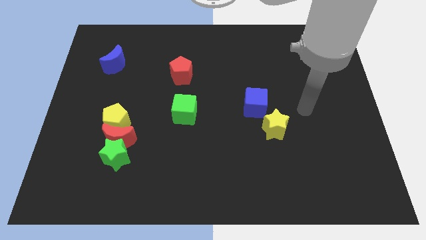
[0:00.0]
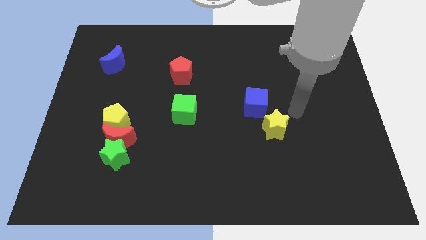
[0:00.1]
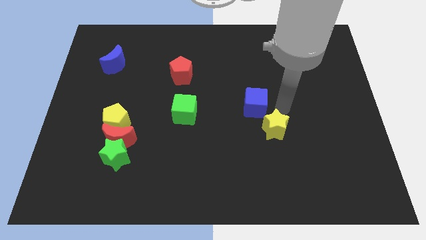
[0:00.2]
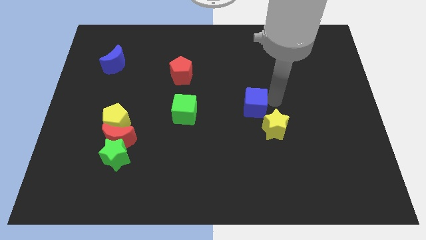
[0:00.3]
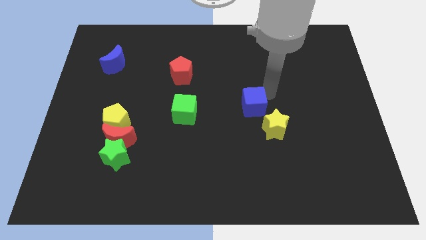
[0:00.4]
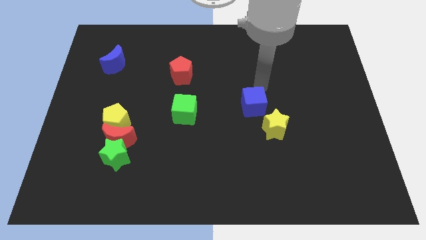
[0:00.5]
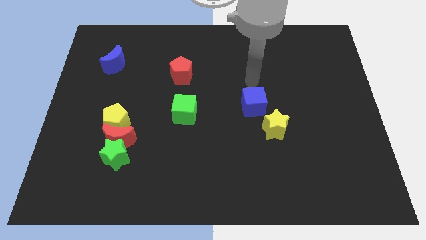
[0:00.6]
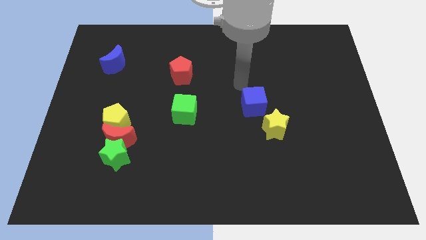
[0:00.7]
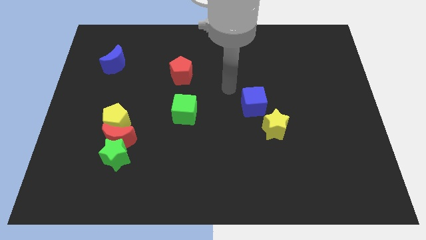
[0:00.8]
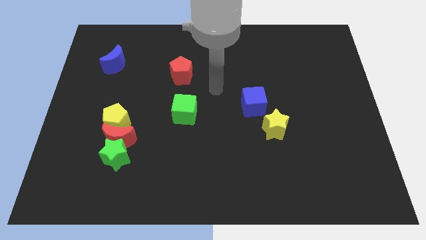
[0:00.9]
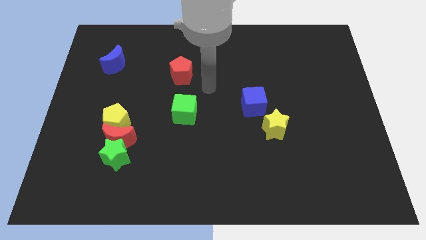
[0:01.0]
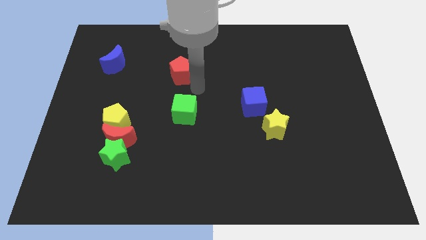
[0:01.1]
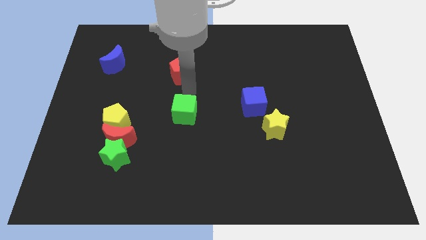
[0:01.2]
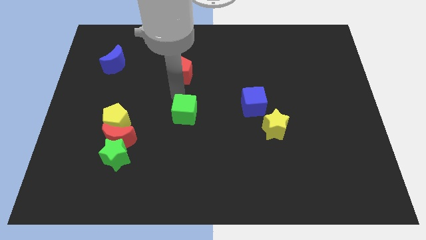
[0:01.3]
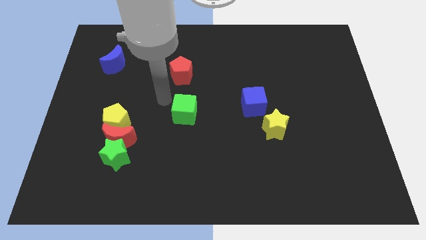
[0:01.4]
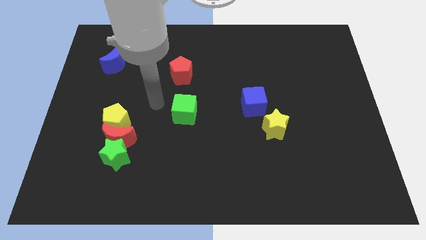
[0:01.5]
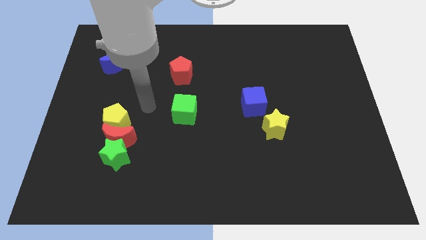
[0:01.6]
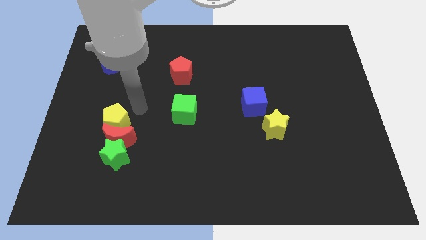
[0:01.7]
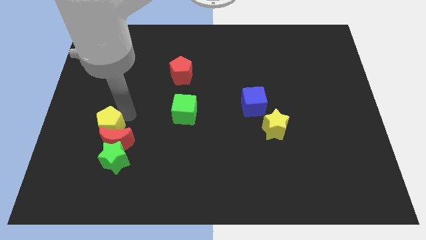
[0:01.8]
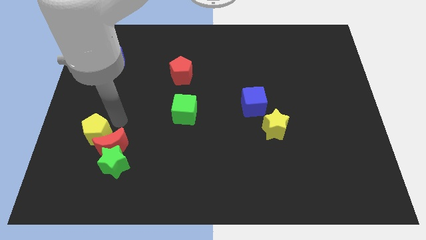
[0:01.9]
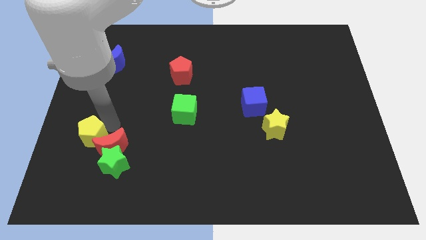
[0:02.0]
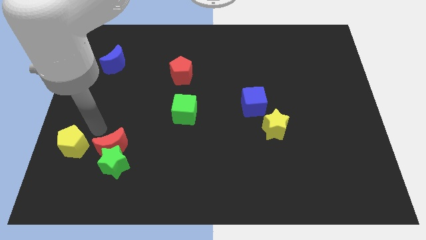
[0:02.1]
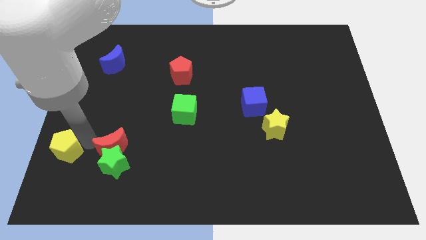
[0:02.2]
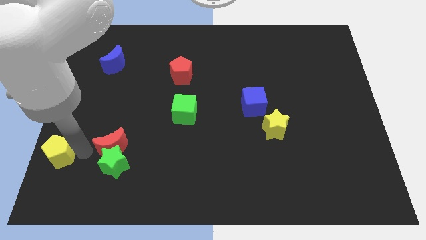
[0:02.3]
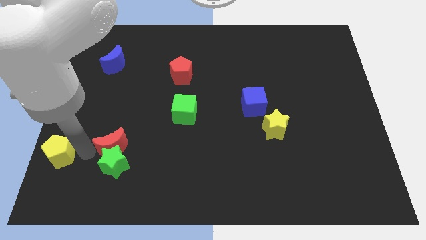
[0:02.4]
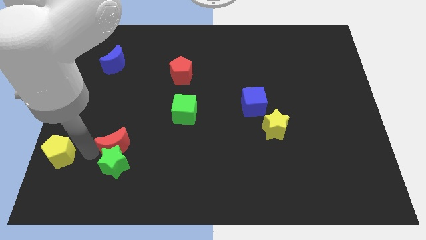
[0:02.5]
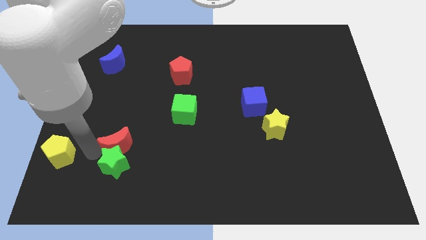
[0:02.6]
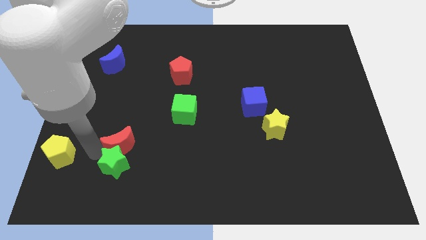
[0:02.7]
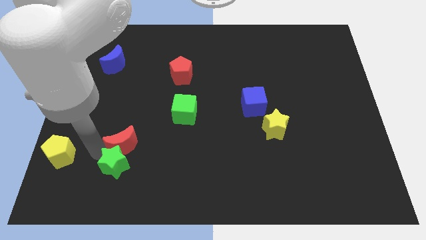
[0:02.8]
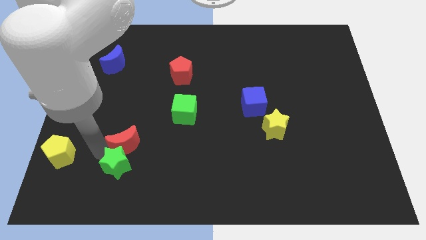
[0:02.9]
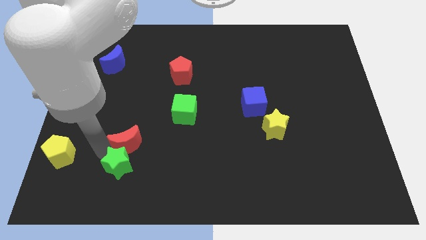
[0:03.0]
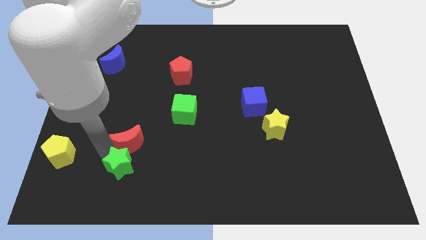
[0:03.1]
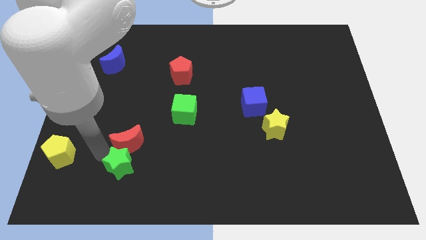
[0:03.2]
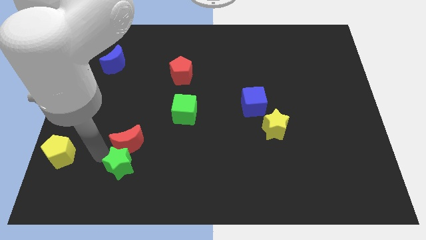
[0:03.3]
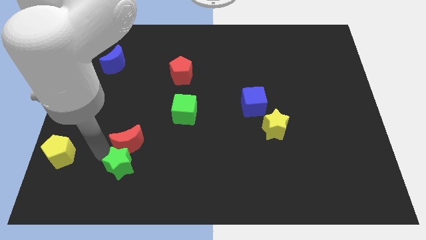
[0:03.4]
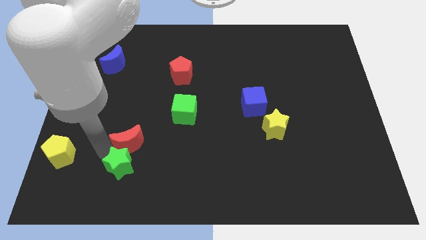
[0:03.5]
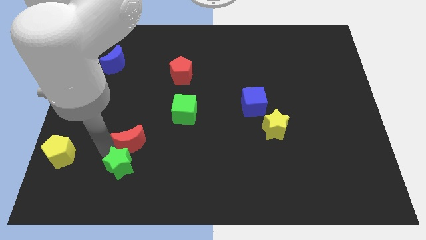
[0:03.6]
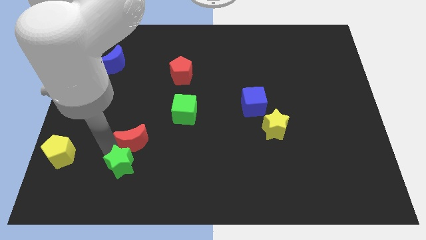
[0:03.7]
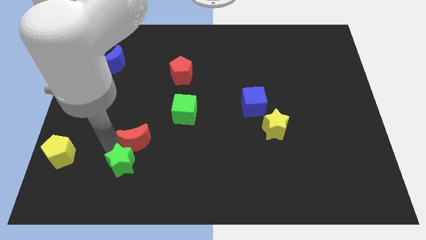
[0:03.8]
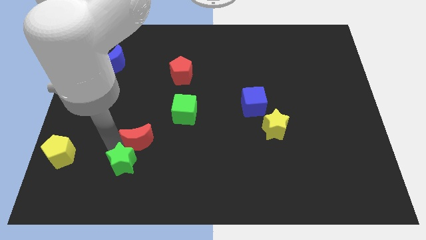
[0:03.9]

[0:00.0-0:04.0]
separate the red moon from the green star and yellow pentagon

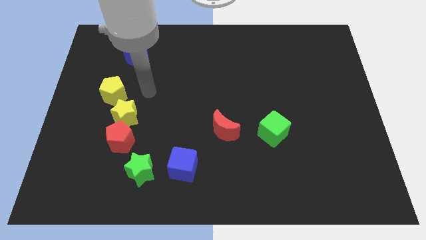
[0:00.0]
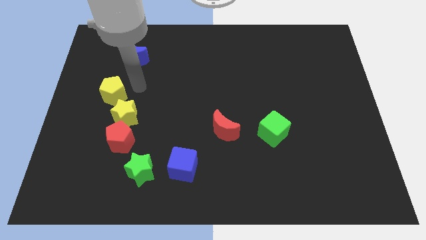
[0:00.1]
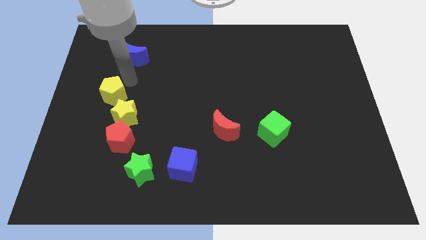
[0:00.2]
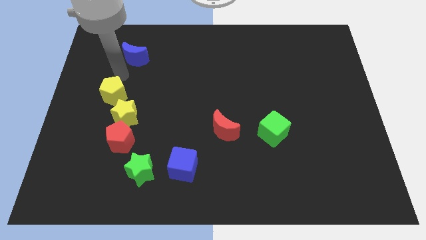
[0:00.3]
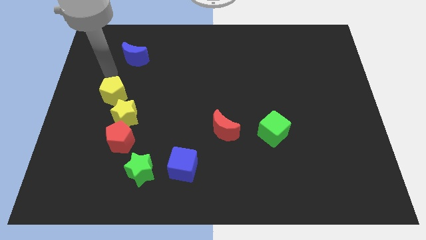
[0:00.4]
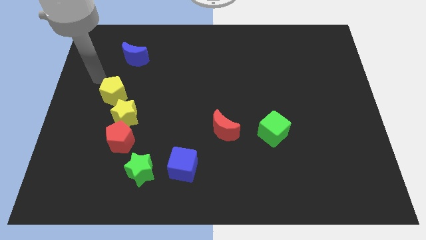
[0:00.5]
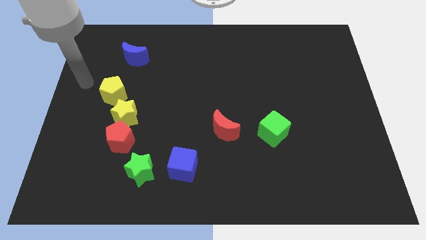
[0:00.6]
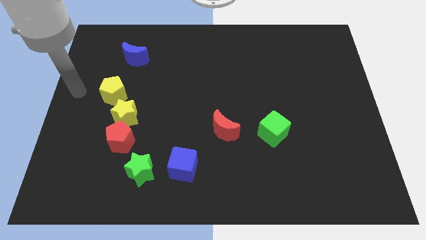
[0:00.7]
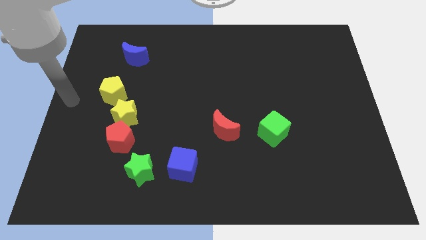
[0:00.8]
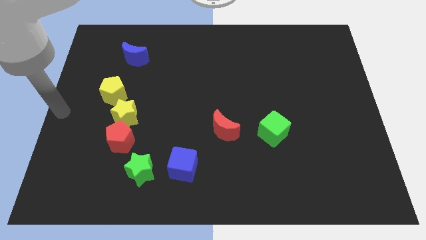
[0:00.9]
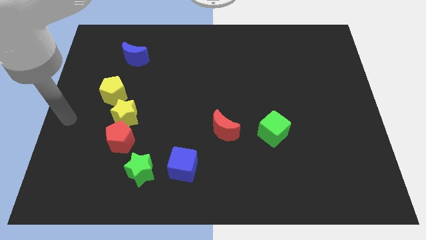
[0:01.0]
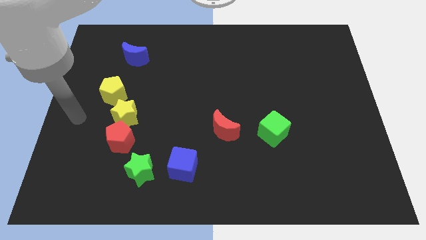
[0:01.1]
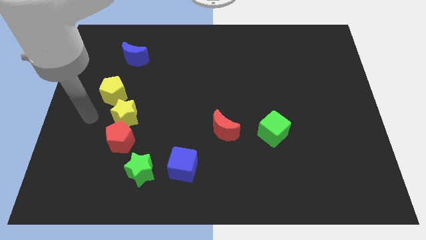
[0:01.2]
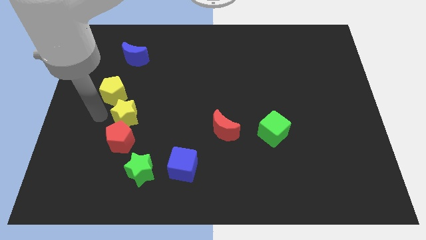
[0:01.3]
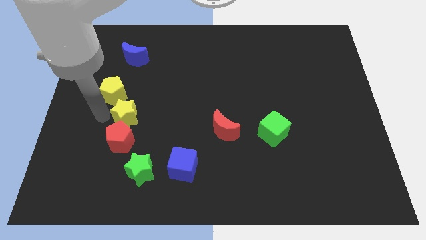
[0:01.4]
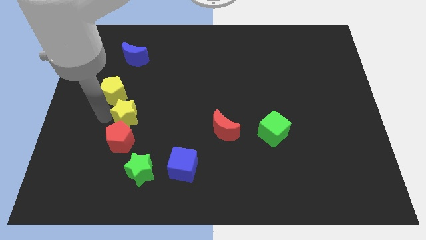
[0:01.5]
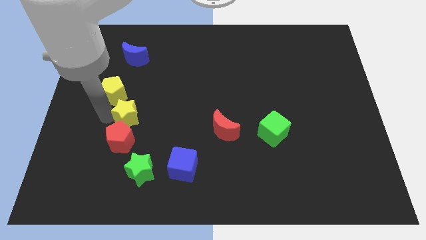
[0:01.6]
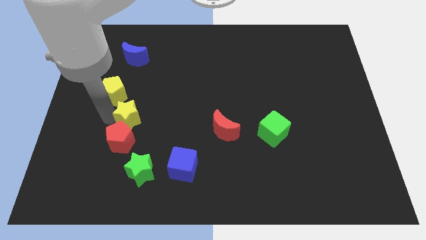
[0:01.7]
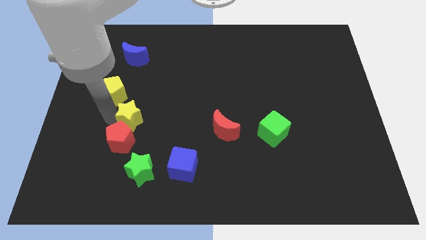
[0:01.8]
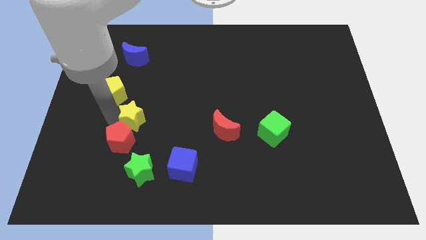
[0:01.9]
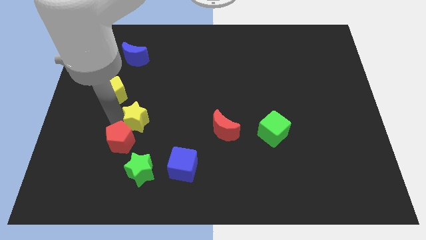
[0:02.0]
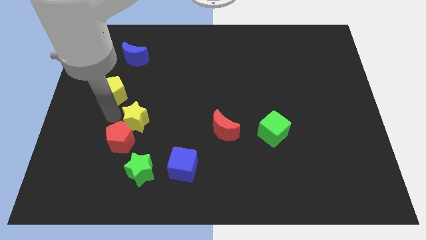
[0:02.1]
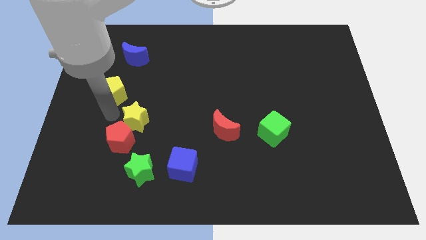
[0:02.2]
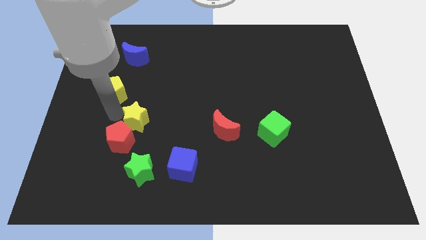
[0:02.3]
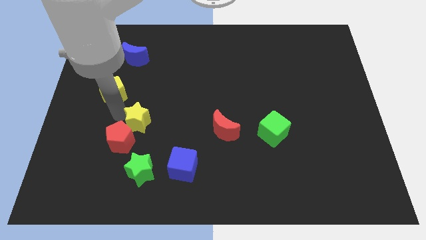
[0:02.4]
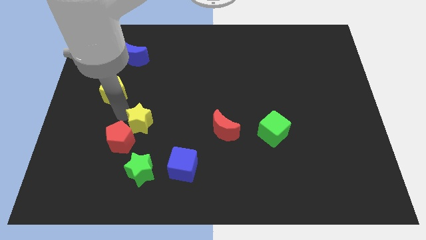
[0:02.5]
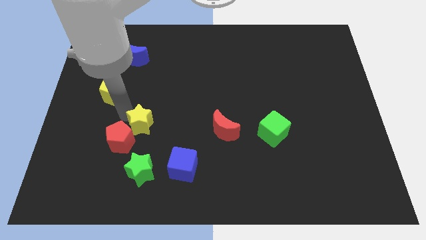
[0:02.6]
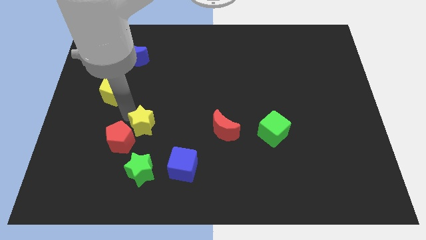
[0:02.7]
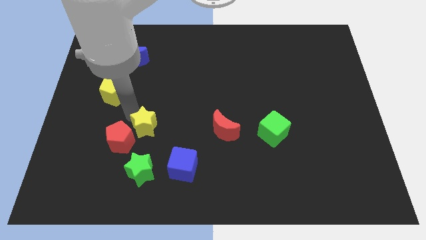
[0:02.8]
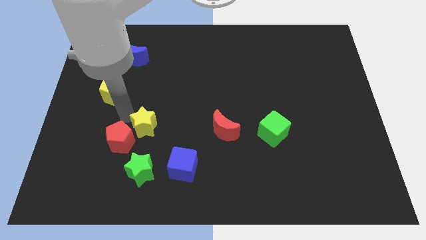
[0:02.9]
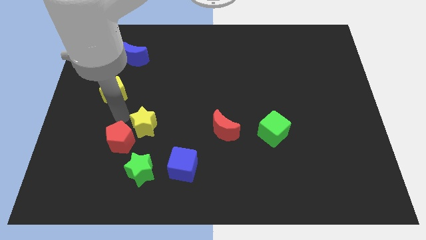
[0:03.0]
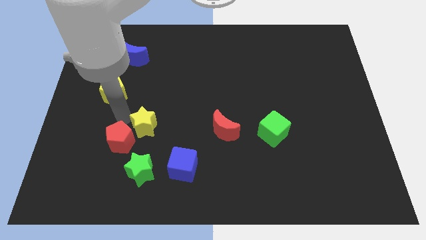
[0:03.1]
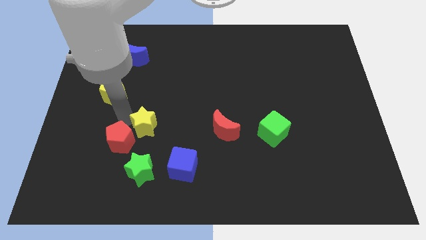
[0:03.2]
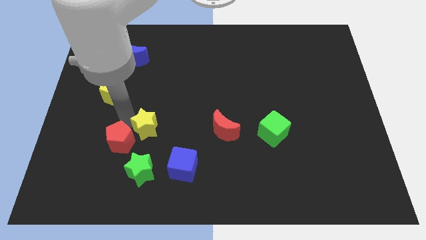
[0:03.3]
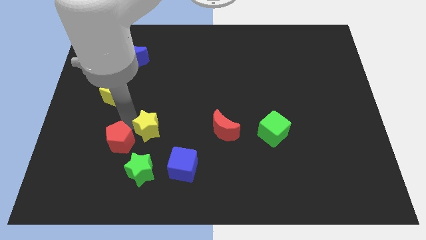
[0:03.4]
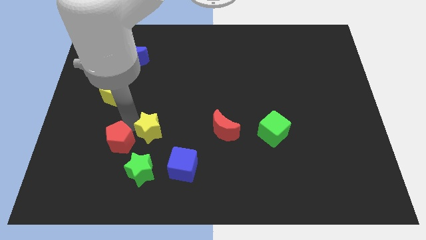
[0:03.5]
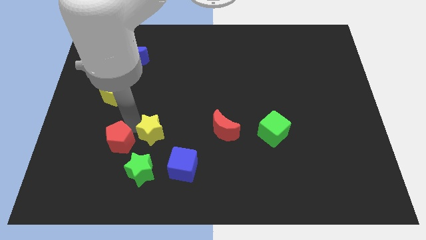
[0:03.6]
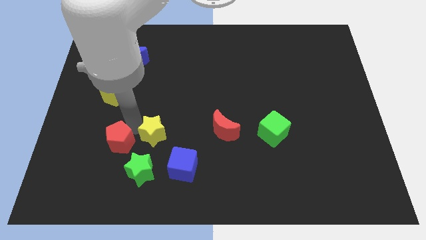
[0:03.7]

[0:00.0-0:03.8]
move the yellow star away from the red pentagon and yellow pentagon

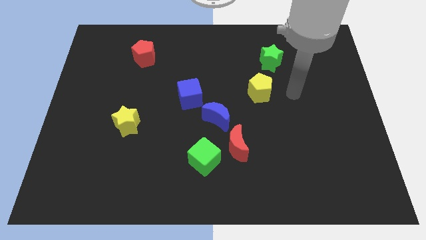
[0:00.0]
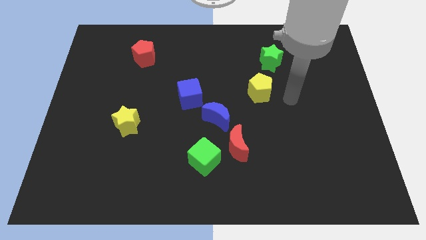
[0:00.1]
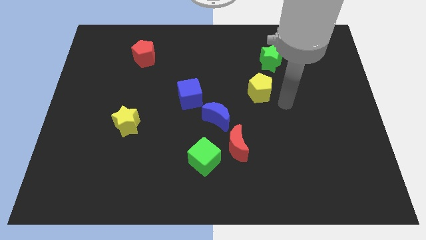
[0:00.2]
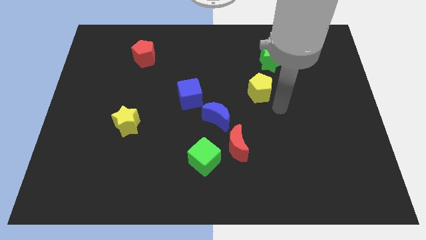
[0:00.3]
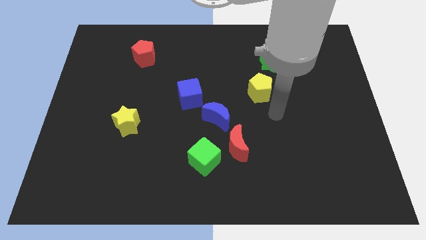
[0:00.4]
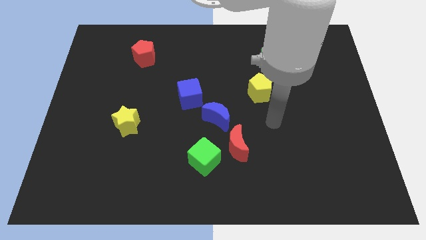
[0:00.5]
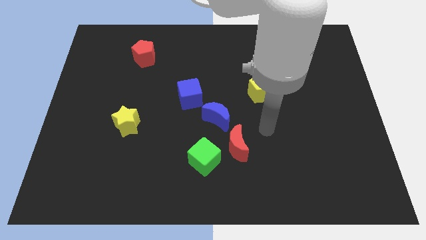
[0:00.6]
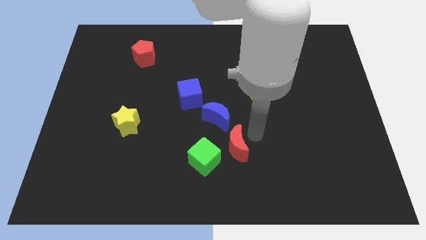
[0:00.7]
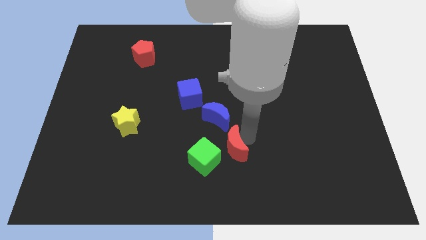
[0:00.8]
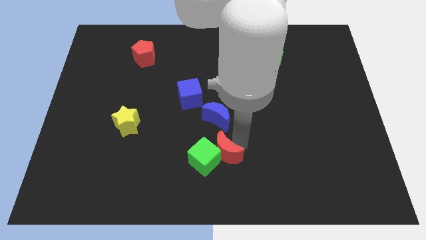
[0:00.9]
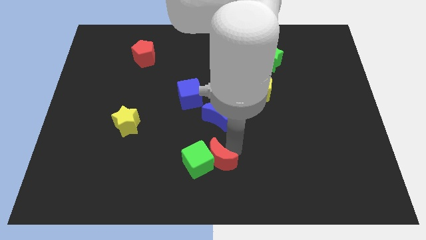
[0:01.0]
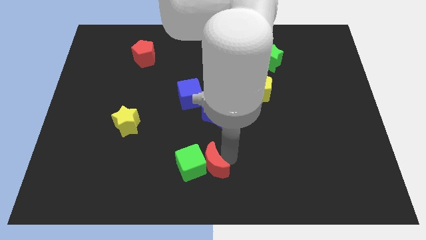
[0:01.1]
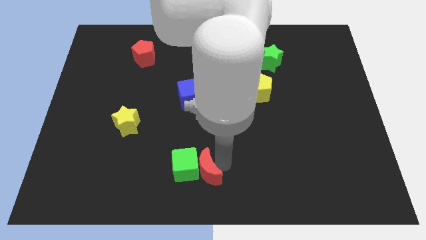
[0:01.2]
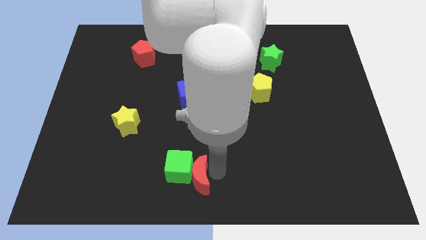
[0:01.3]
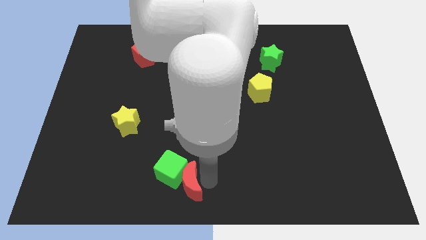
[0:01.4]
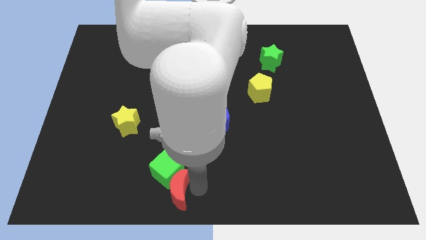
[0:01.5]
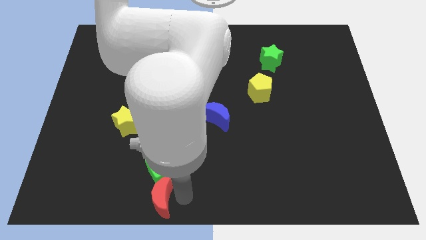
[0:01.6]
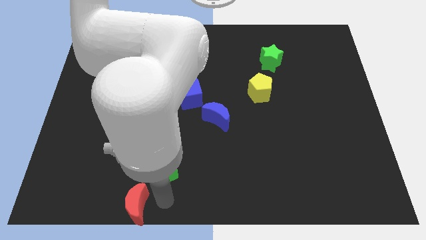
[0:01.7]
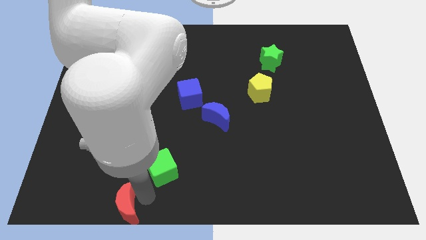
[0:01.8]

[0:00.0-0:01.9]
move the green cube away from the red moon
